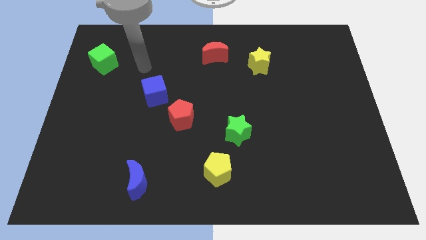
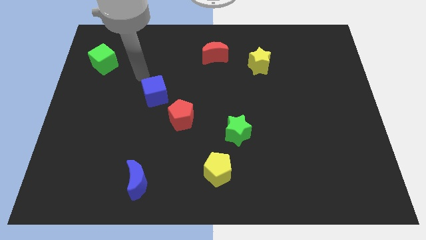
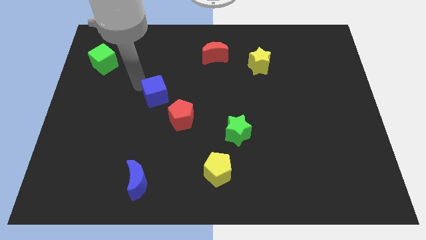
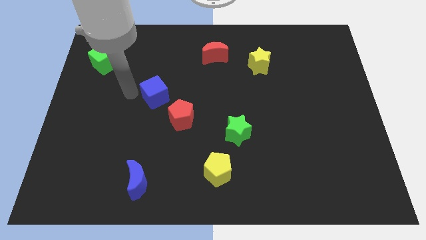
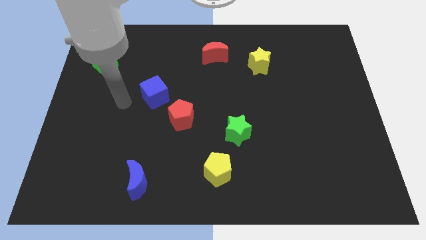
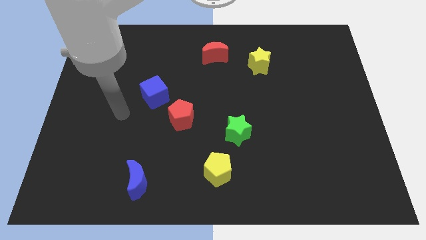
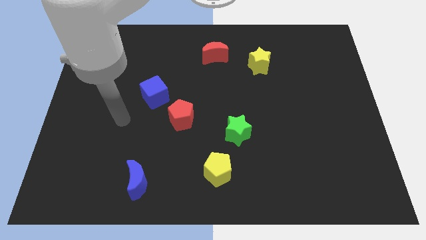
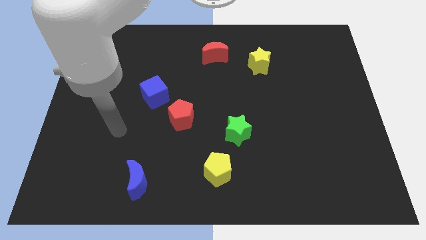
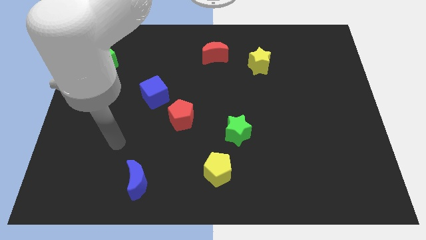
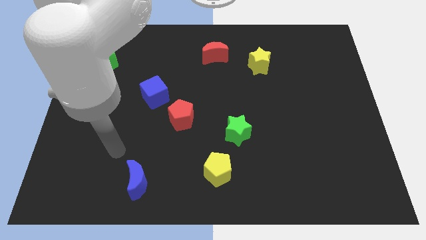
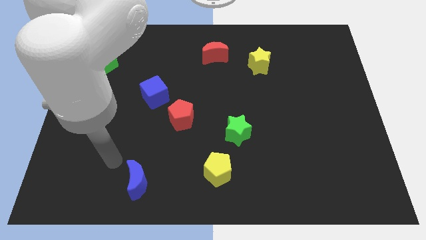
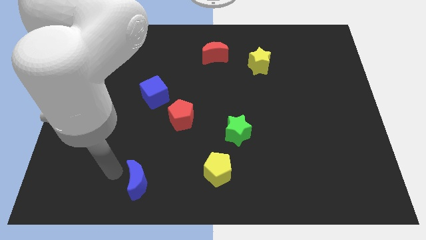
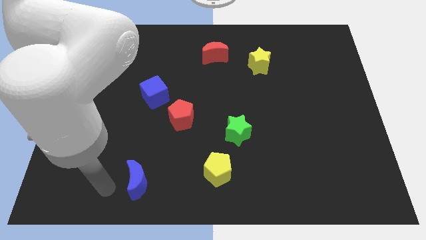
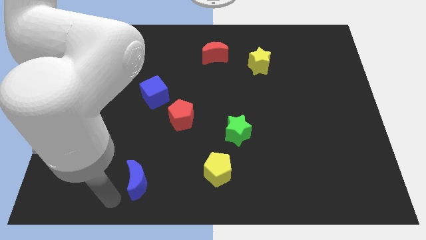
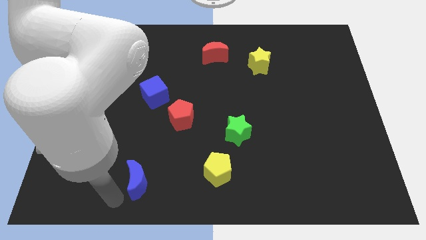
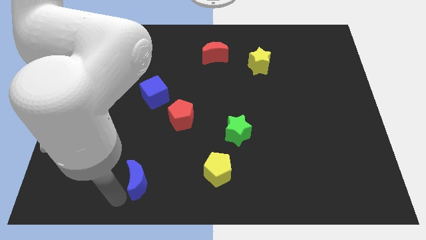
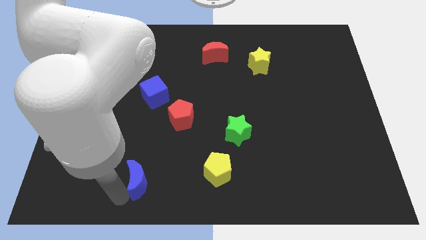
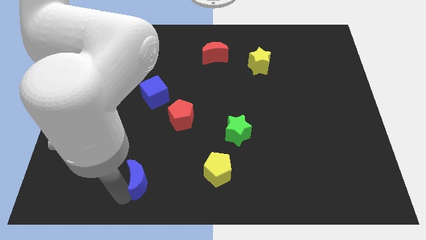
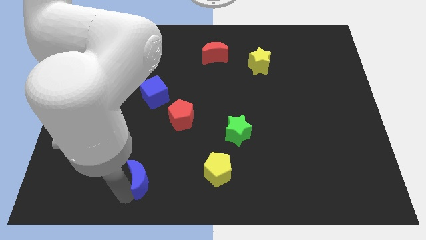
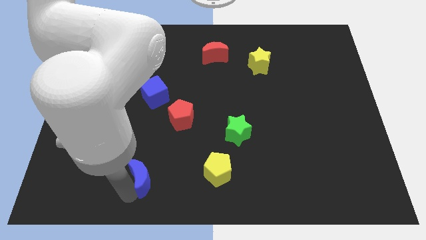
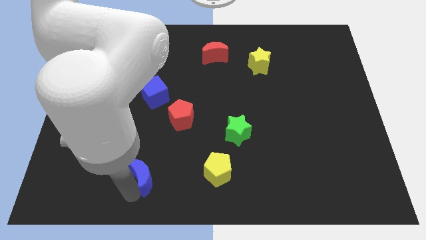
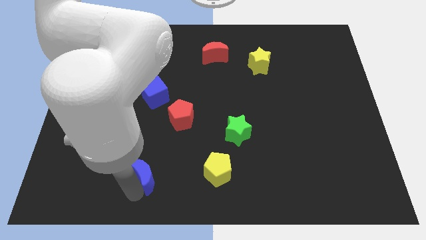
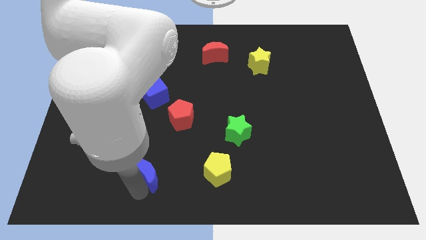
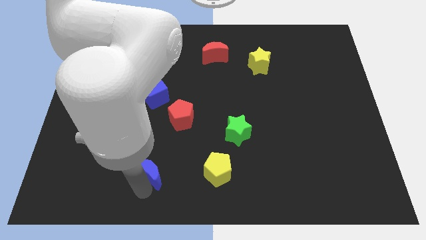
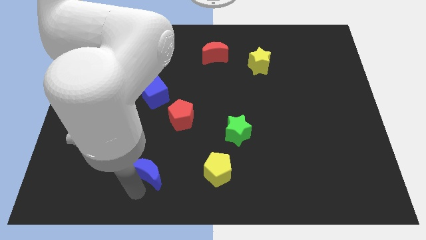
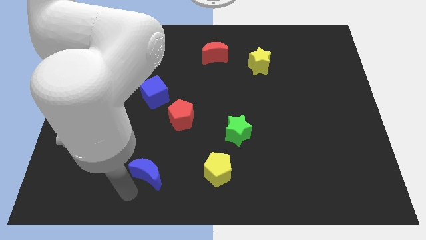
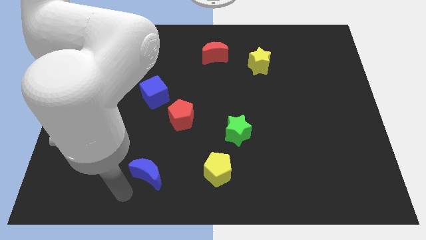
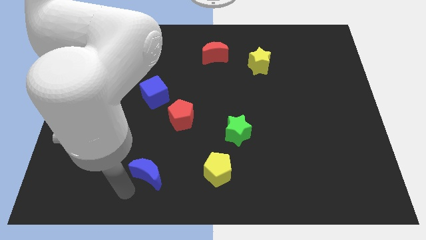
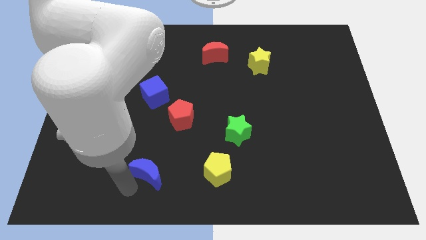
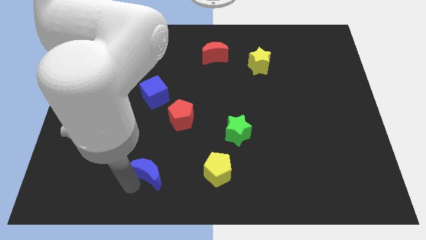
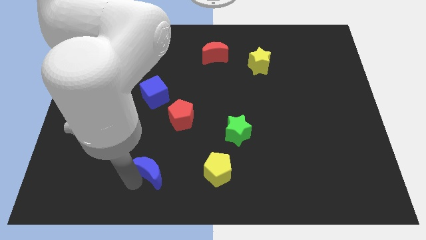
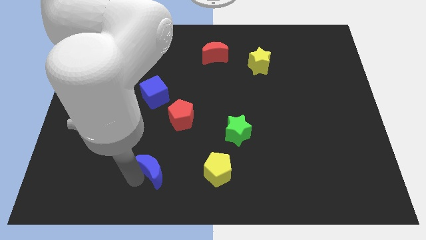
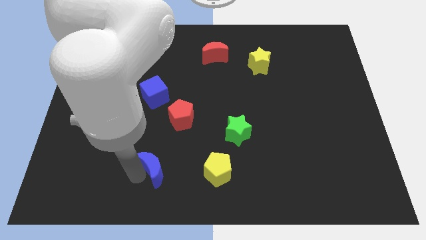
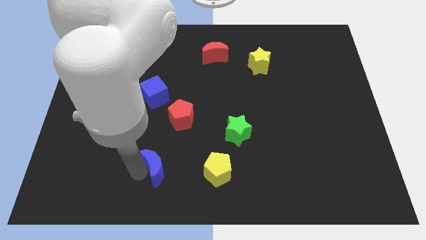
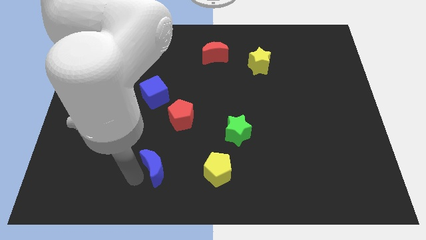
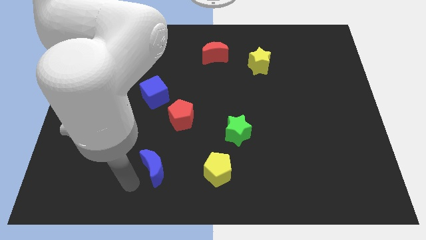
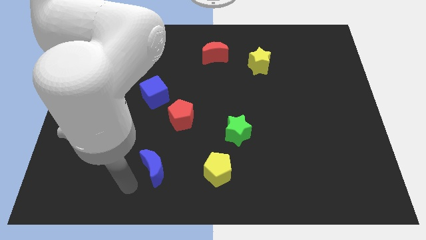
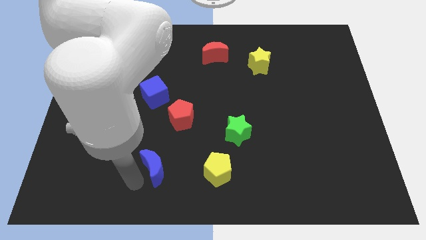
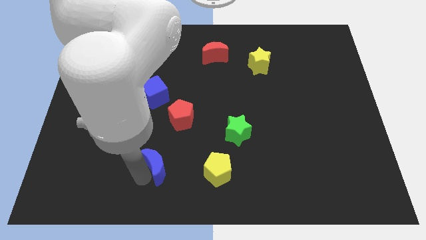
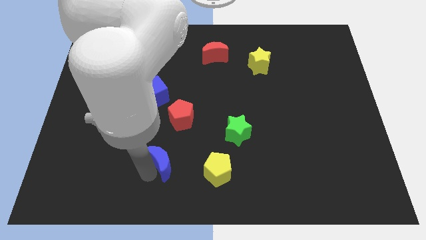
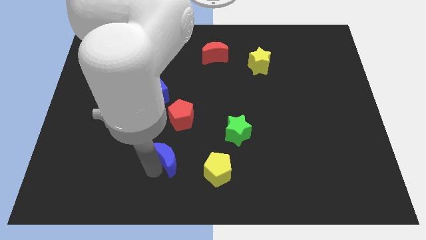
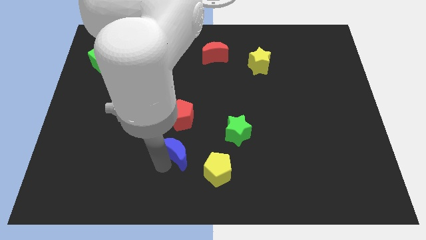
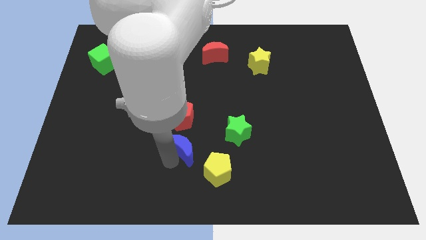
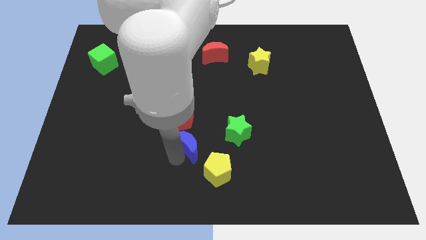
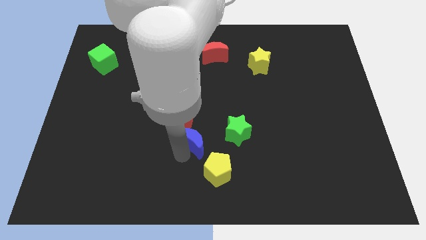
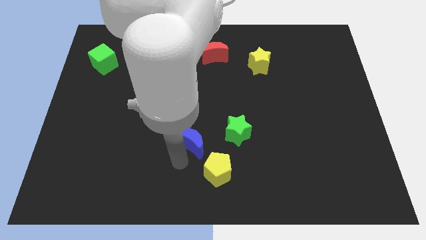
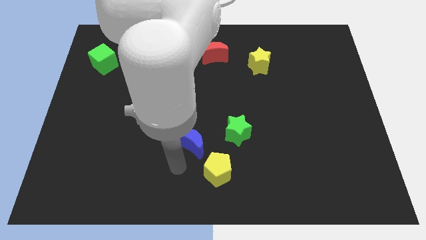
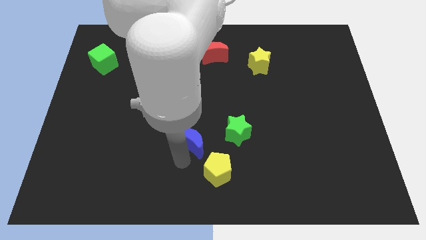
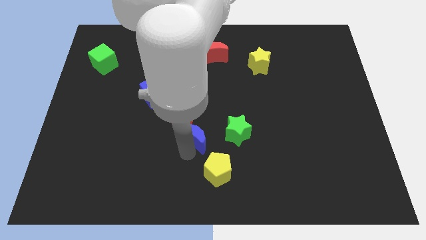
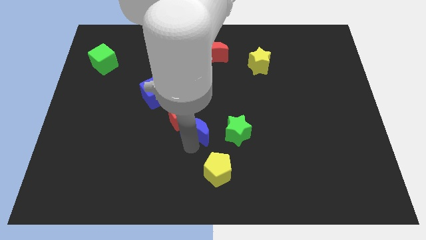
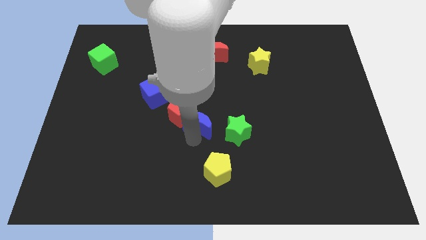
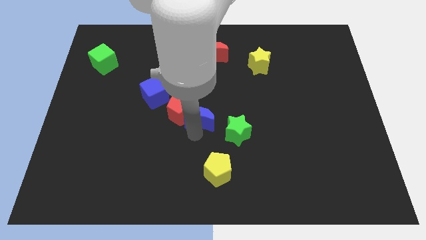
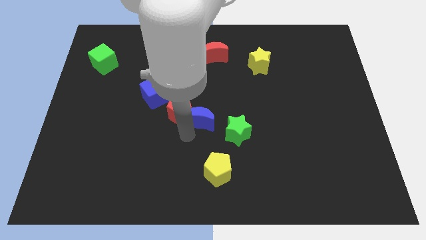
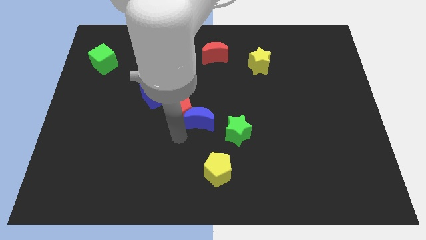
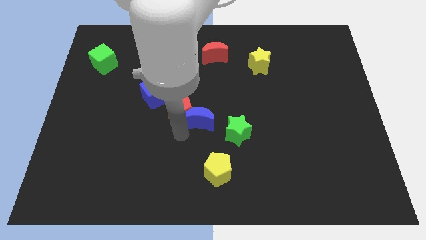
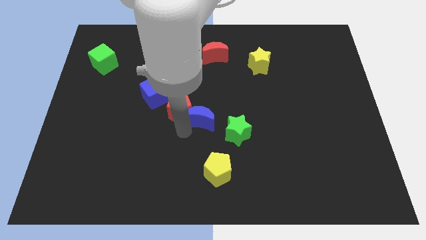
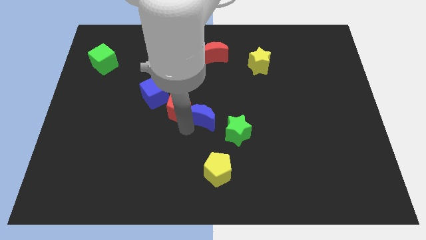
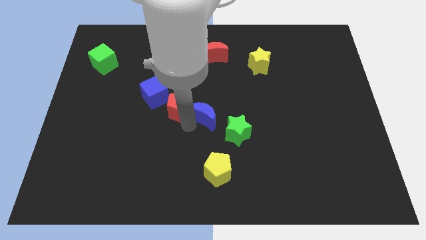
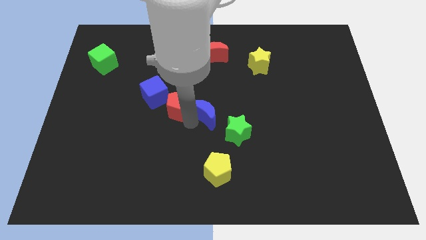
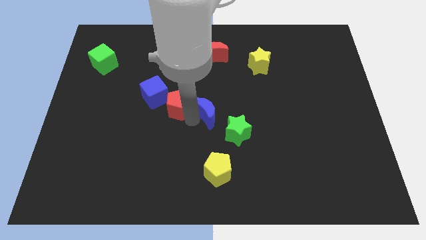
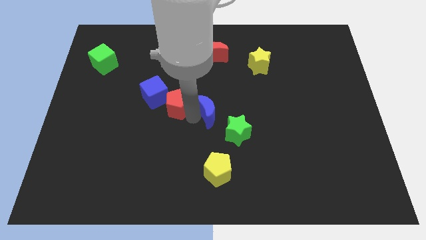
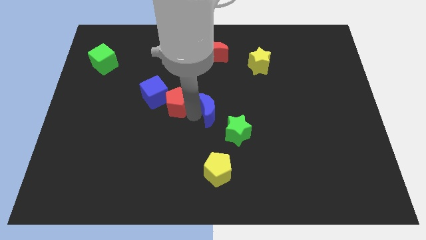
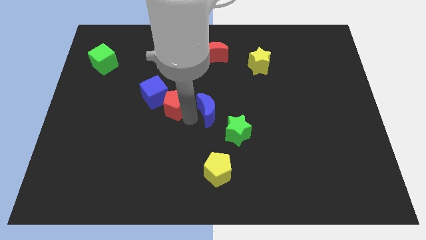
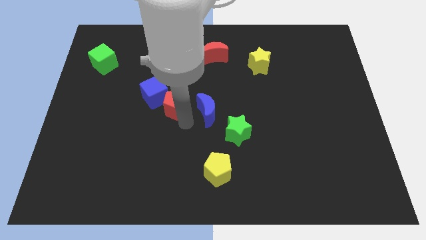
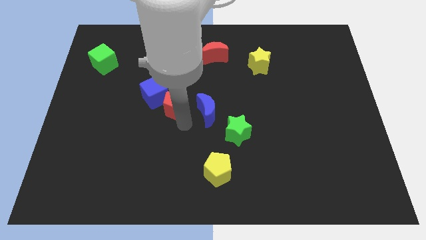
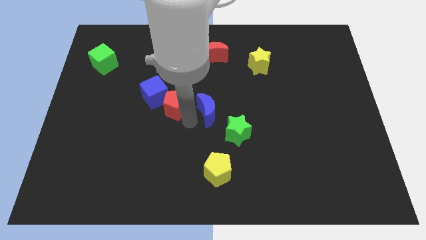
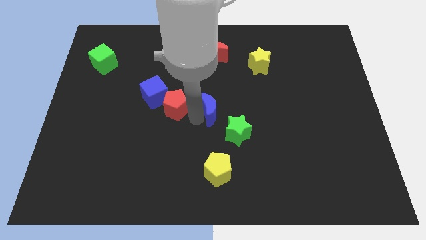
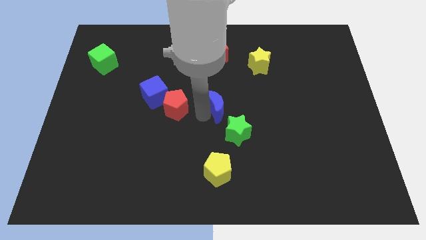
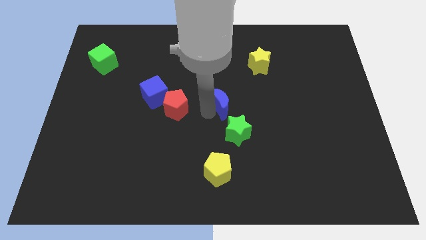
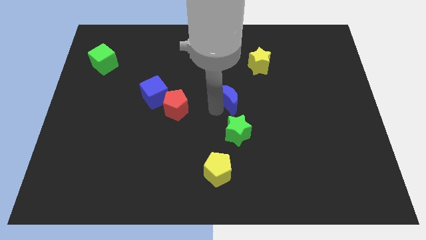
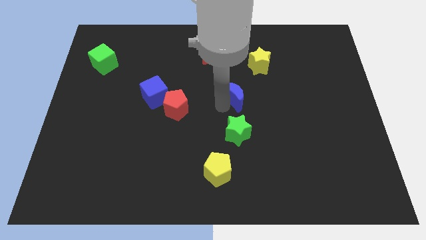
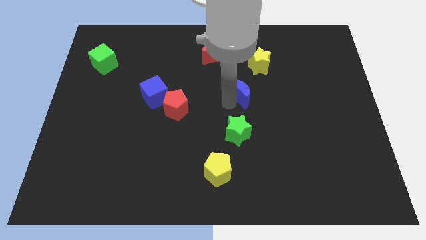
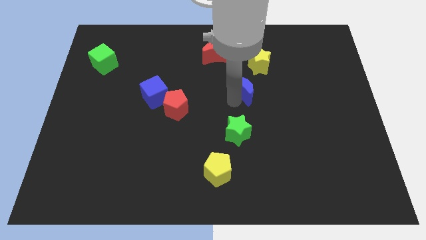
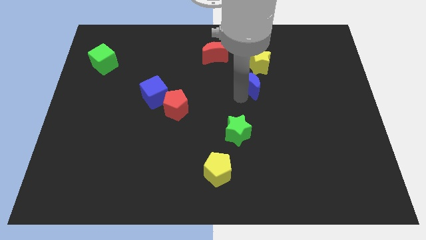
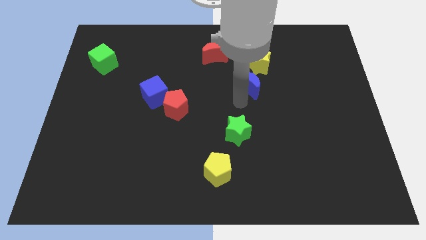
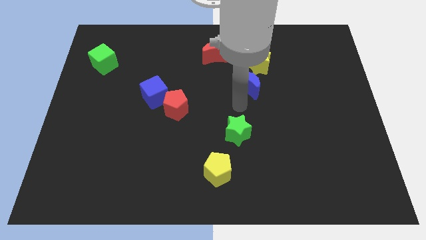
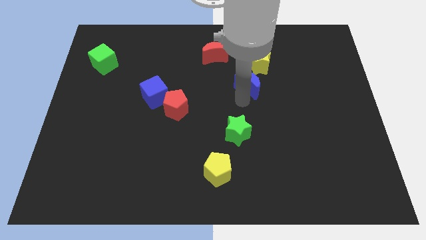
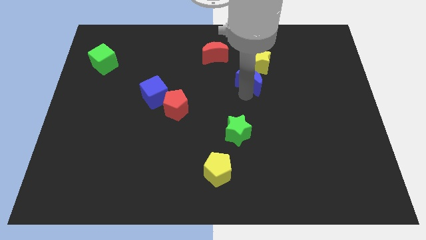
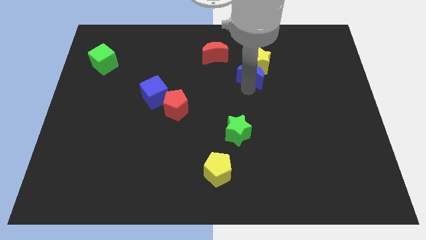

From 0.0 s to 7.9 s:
put the blue moon next to the yellow star
